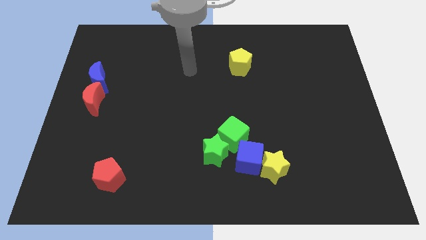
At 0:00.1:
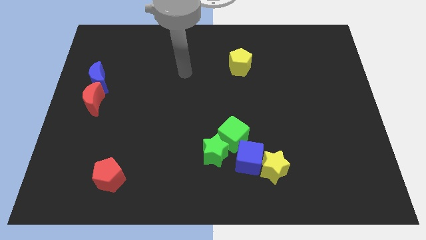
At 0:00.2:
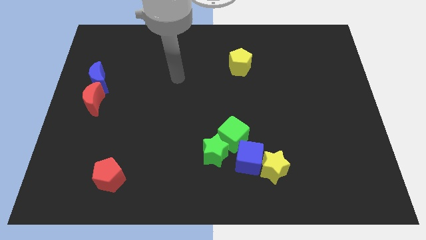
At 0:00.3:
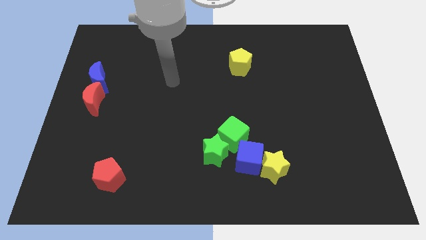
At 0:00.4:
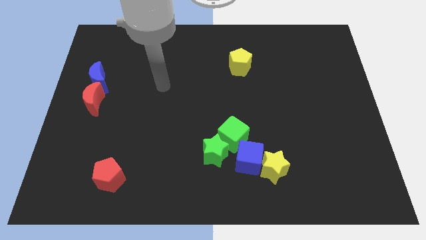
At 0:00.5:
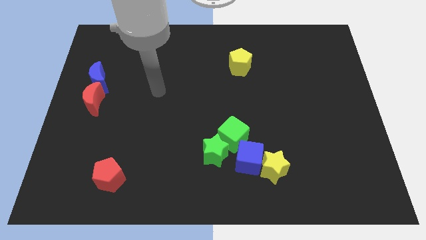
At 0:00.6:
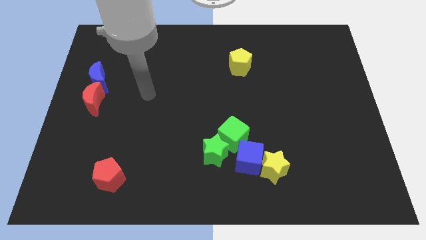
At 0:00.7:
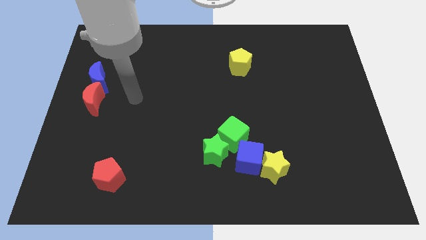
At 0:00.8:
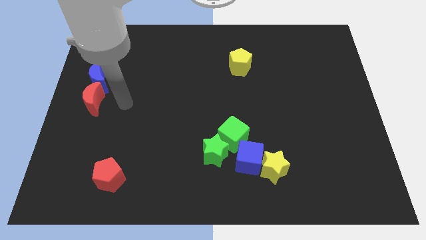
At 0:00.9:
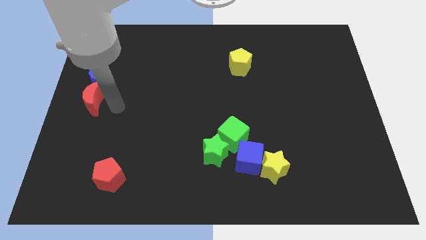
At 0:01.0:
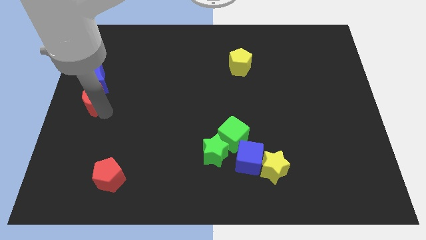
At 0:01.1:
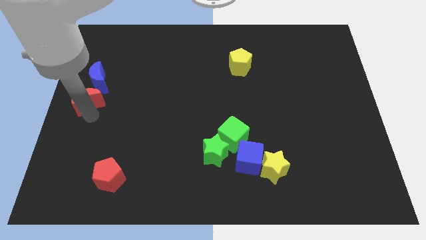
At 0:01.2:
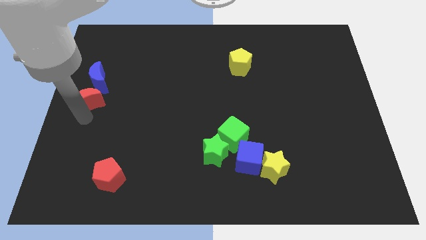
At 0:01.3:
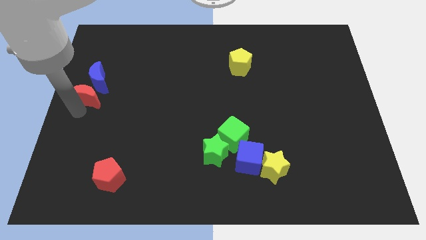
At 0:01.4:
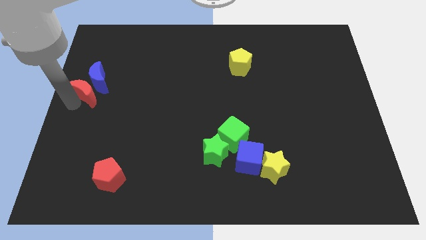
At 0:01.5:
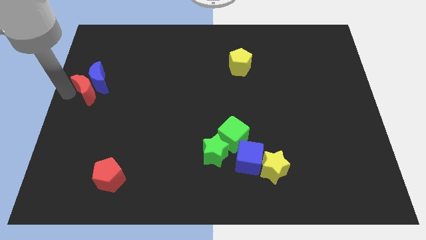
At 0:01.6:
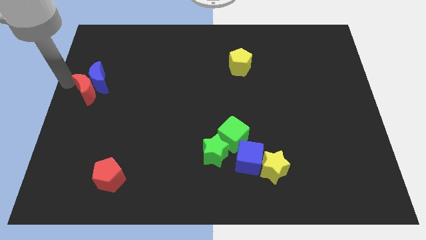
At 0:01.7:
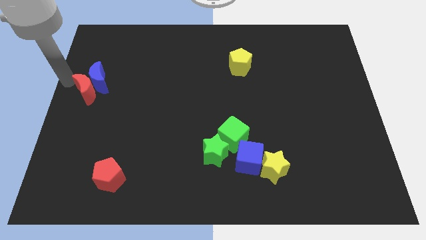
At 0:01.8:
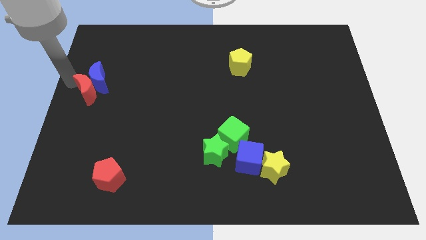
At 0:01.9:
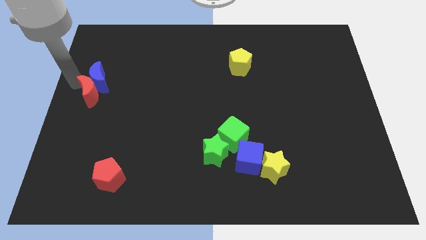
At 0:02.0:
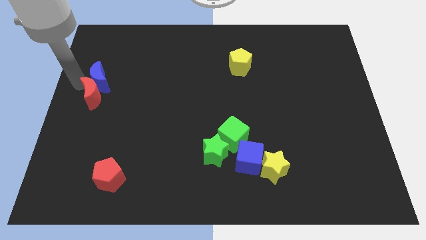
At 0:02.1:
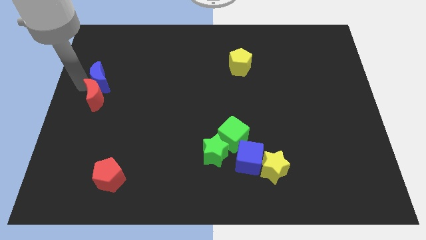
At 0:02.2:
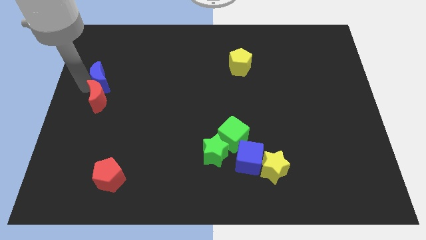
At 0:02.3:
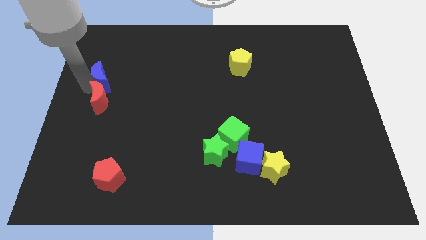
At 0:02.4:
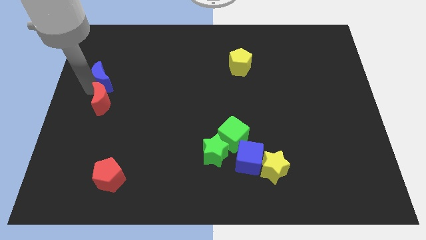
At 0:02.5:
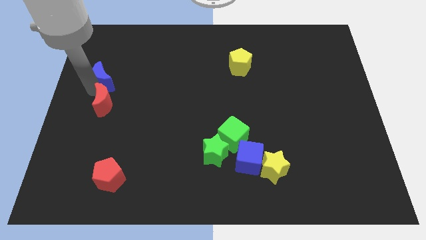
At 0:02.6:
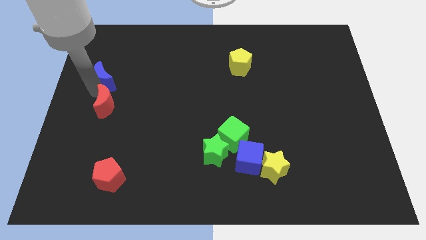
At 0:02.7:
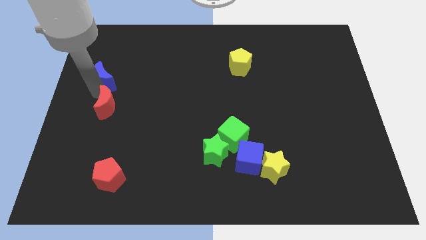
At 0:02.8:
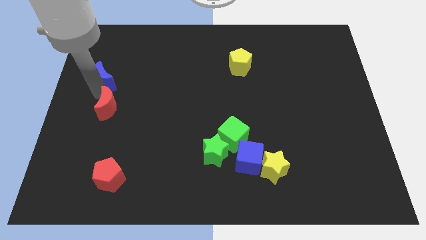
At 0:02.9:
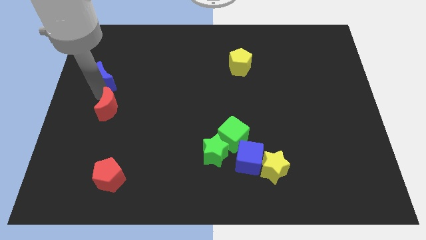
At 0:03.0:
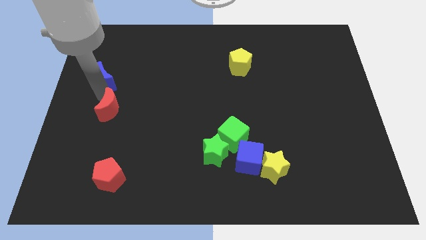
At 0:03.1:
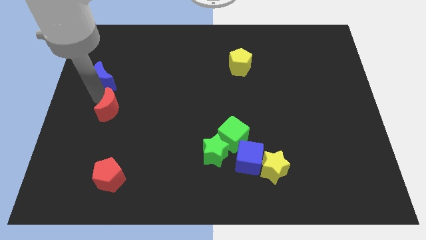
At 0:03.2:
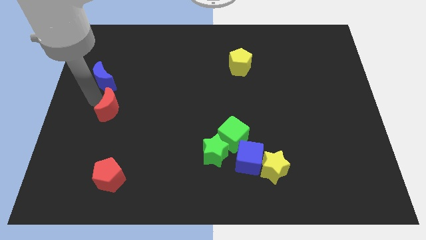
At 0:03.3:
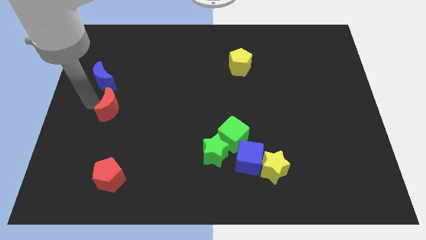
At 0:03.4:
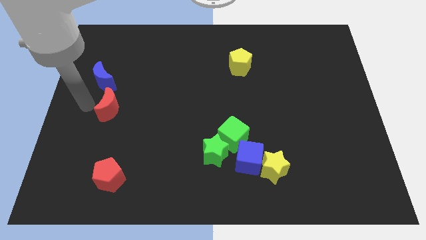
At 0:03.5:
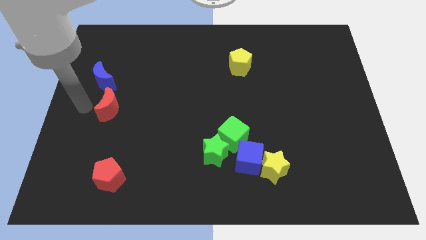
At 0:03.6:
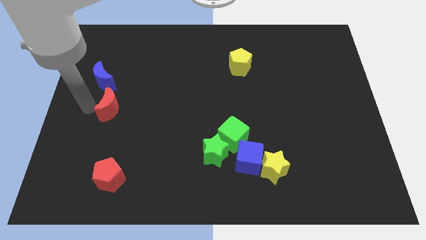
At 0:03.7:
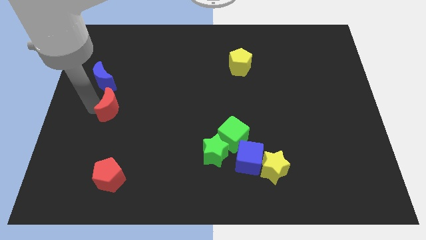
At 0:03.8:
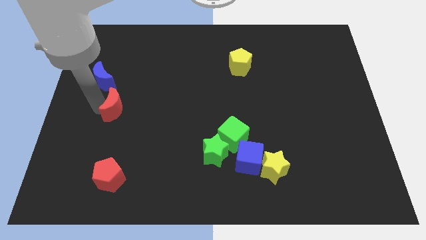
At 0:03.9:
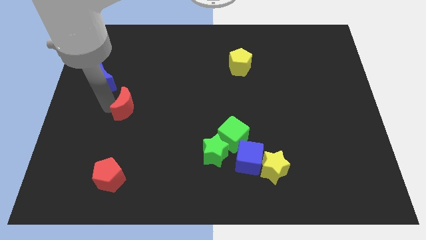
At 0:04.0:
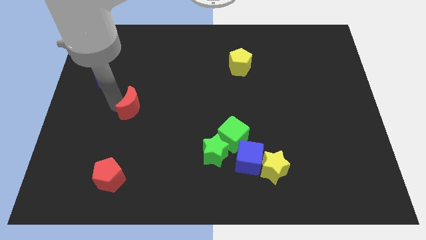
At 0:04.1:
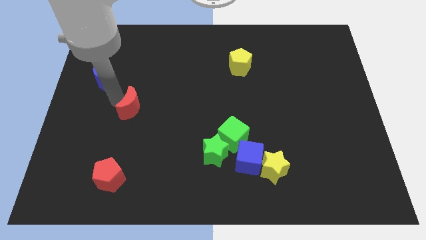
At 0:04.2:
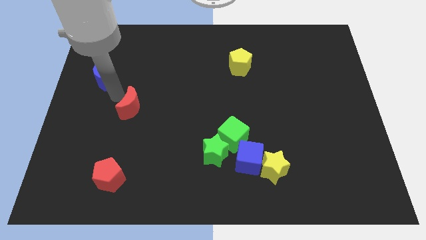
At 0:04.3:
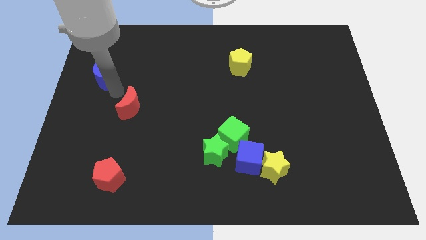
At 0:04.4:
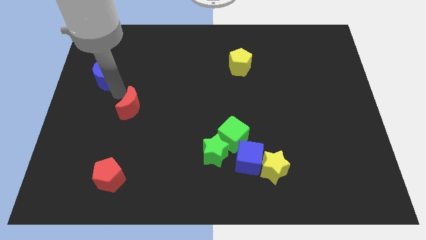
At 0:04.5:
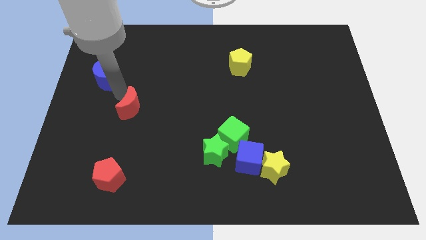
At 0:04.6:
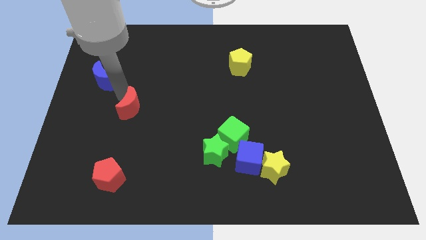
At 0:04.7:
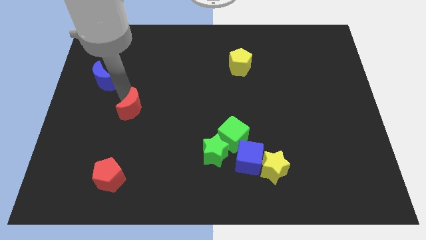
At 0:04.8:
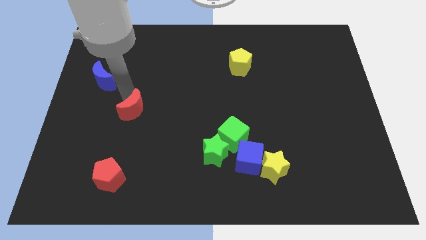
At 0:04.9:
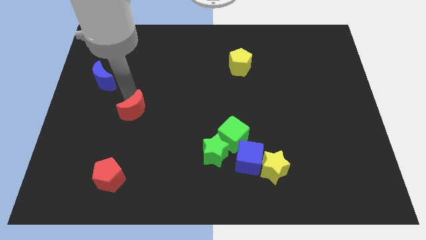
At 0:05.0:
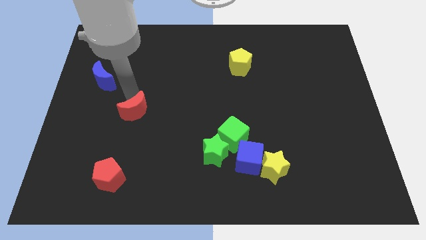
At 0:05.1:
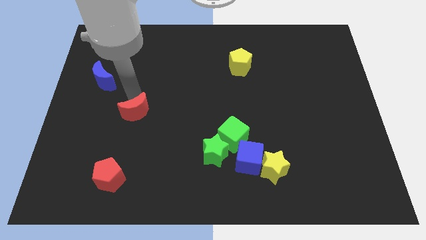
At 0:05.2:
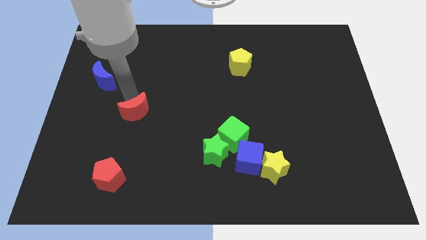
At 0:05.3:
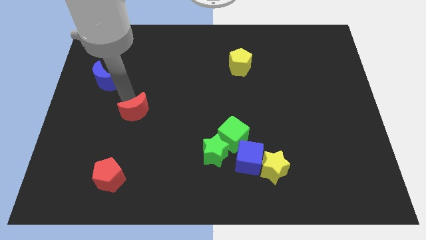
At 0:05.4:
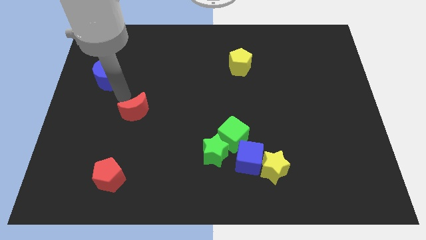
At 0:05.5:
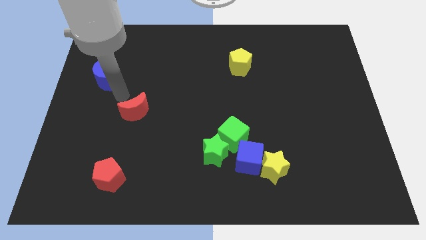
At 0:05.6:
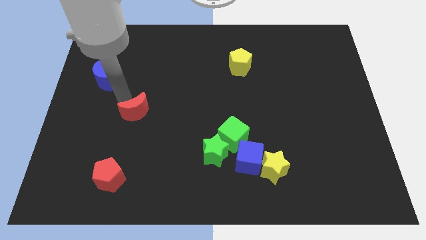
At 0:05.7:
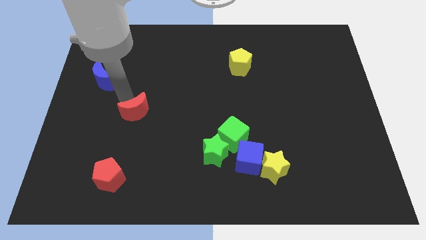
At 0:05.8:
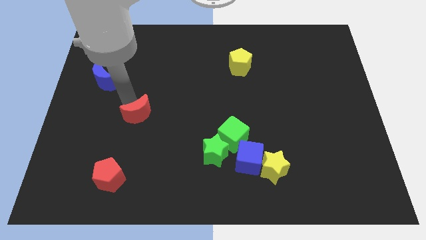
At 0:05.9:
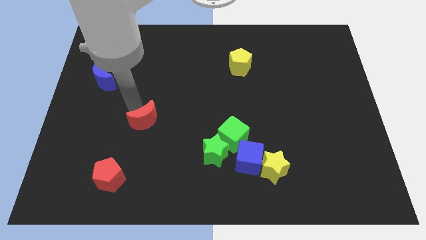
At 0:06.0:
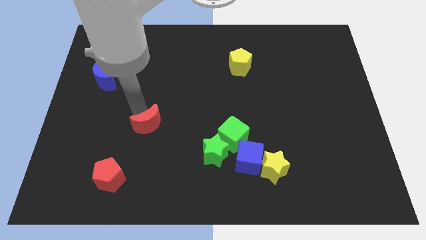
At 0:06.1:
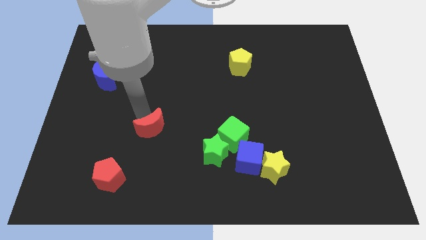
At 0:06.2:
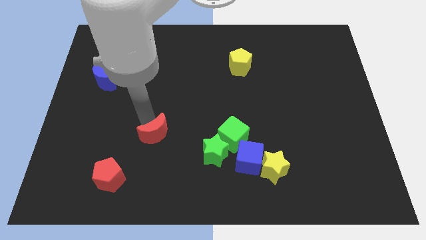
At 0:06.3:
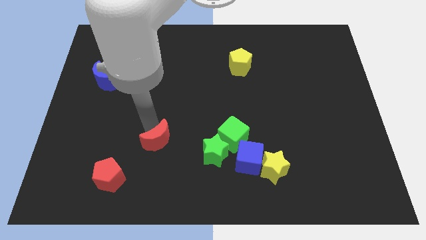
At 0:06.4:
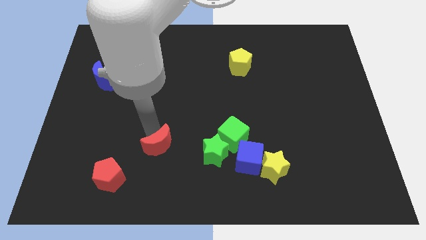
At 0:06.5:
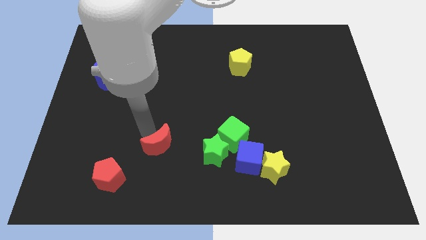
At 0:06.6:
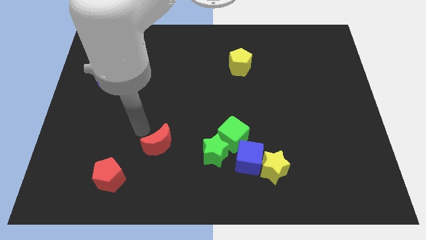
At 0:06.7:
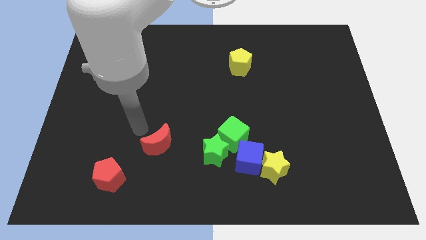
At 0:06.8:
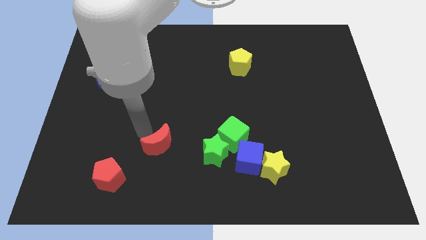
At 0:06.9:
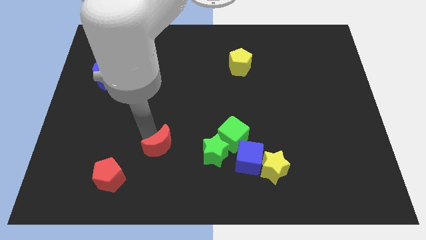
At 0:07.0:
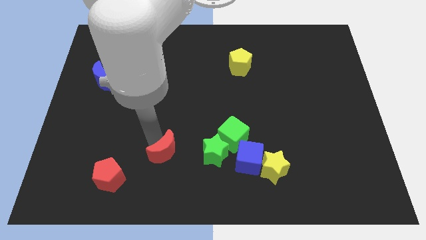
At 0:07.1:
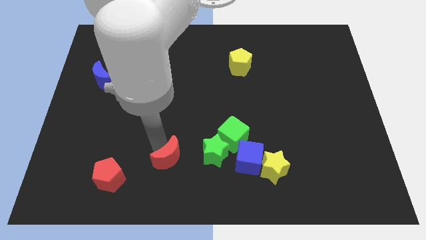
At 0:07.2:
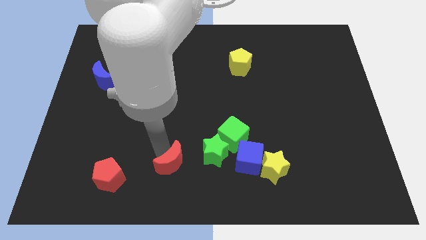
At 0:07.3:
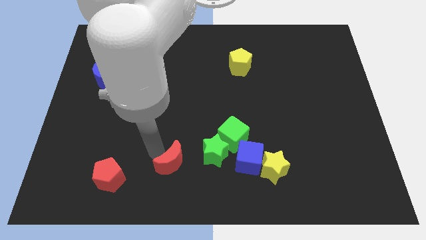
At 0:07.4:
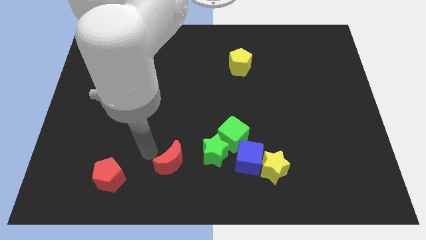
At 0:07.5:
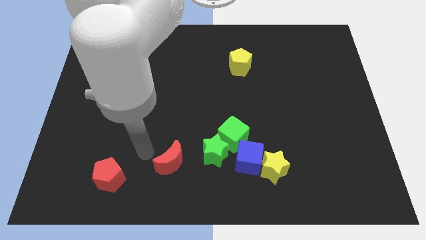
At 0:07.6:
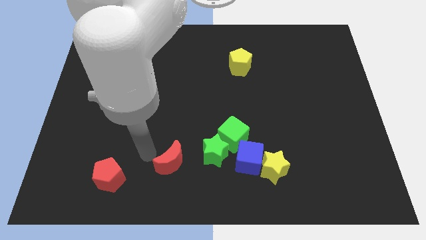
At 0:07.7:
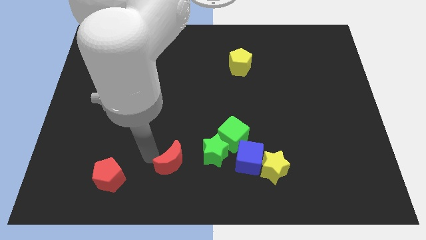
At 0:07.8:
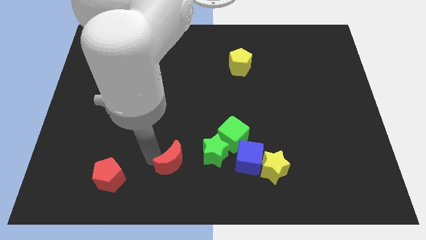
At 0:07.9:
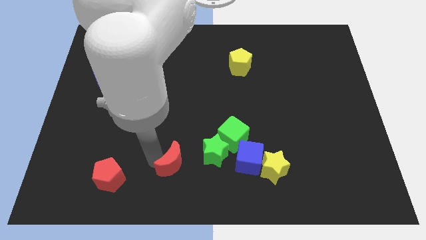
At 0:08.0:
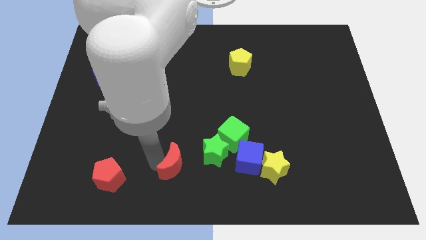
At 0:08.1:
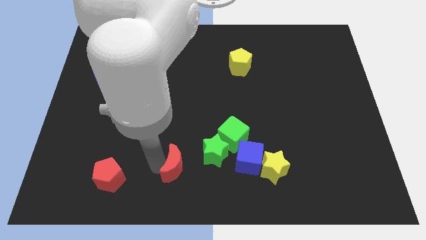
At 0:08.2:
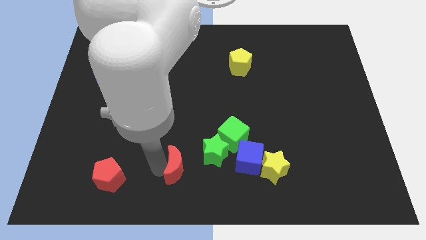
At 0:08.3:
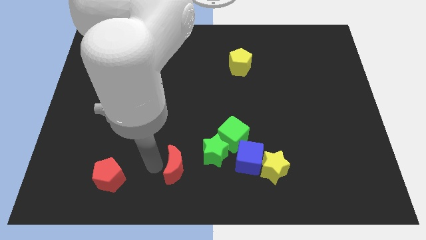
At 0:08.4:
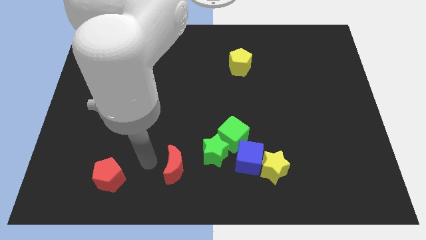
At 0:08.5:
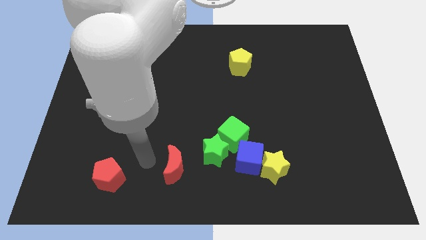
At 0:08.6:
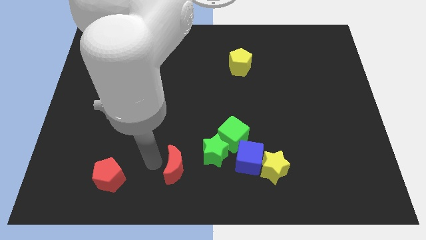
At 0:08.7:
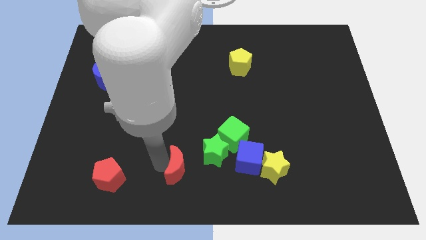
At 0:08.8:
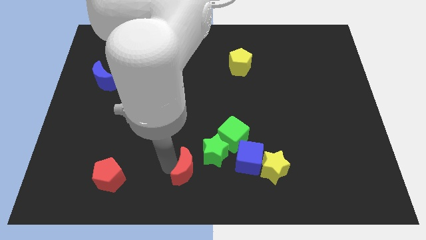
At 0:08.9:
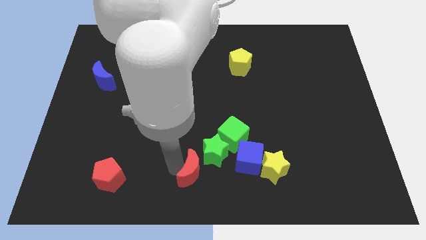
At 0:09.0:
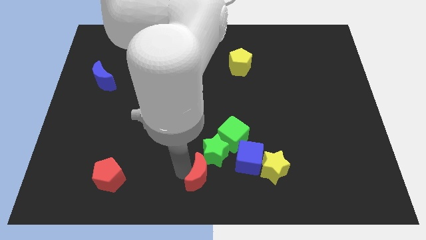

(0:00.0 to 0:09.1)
slide the red moon just left of the yellow star
